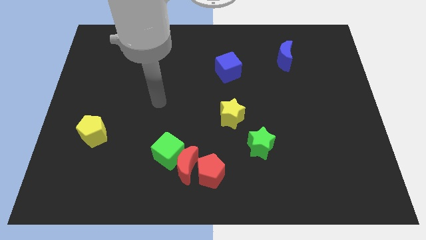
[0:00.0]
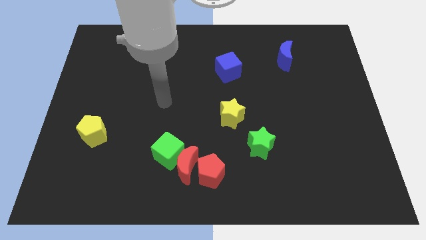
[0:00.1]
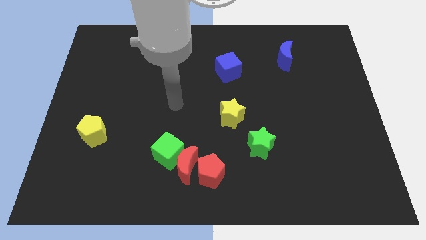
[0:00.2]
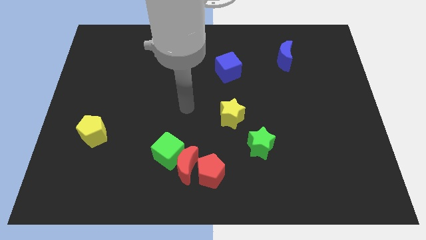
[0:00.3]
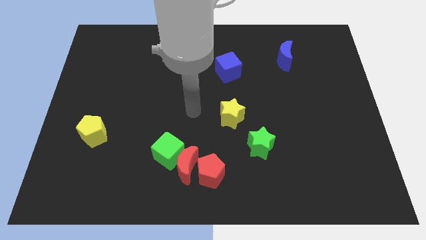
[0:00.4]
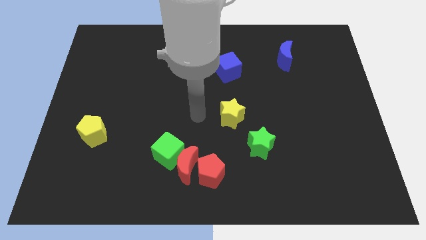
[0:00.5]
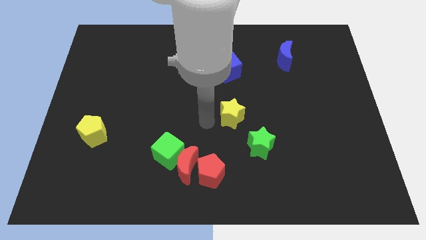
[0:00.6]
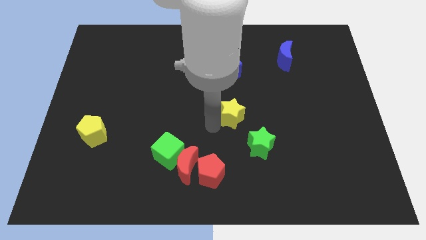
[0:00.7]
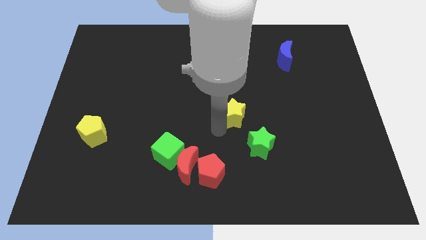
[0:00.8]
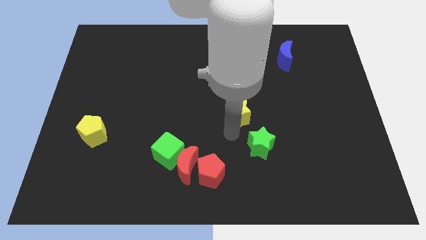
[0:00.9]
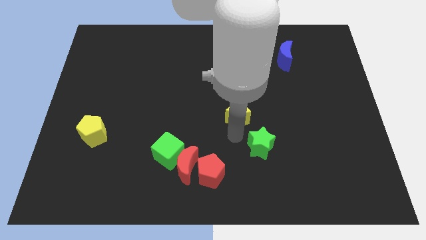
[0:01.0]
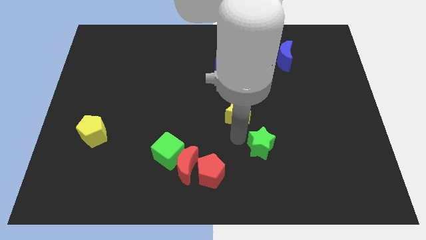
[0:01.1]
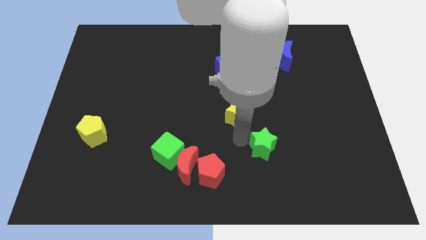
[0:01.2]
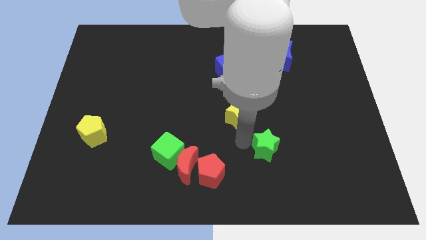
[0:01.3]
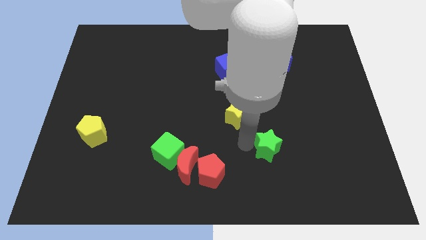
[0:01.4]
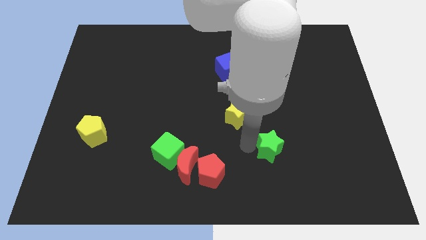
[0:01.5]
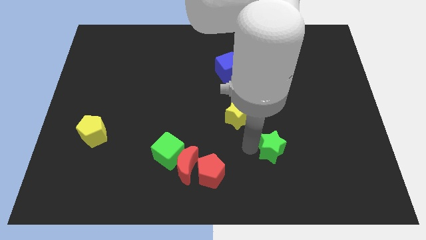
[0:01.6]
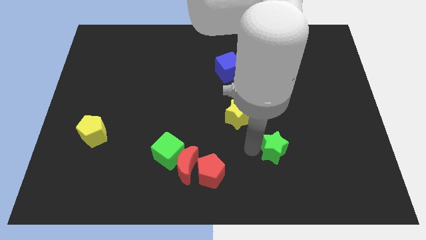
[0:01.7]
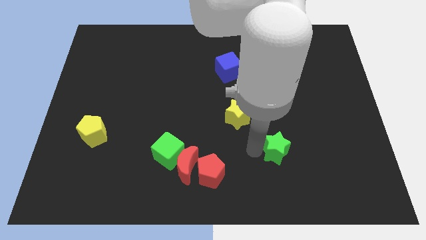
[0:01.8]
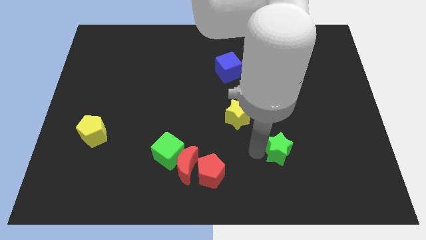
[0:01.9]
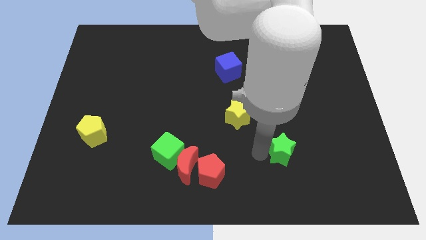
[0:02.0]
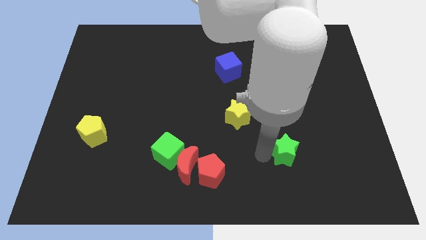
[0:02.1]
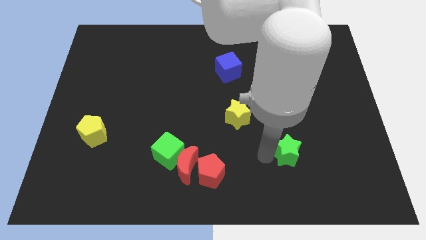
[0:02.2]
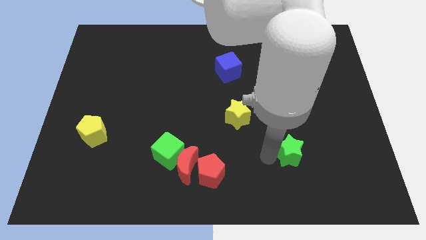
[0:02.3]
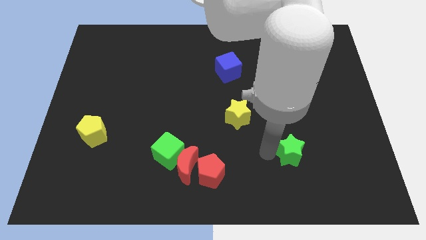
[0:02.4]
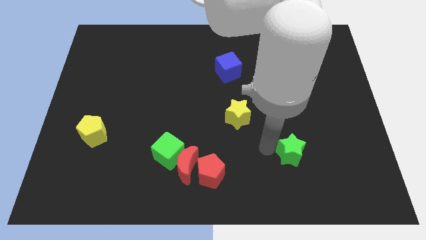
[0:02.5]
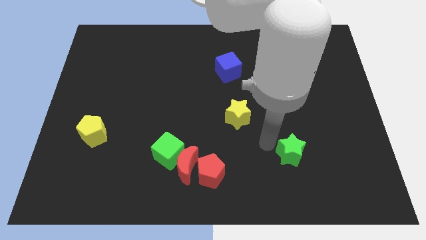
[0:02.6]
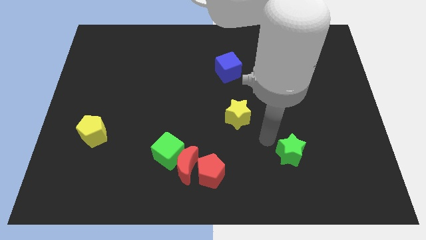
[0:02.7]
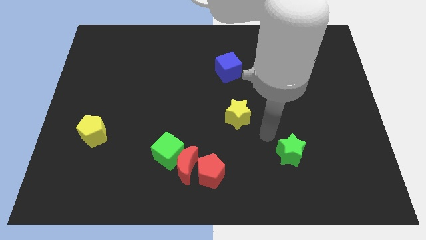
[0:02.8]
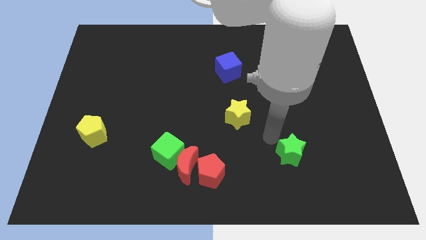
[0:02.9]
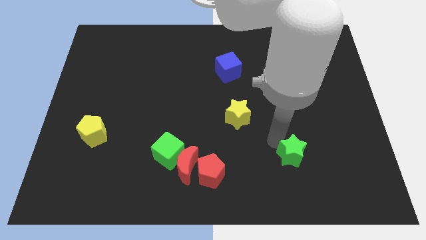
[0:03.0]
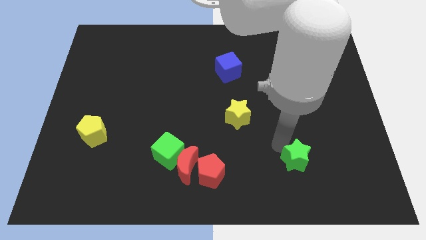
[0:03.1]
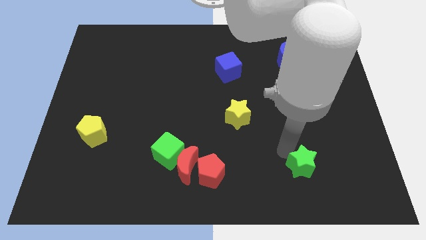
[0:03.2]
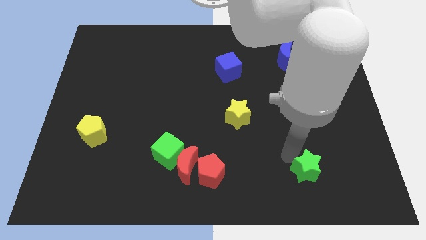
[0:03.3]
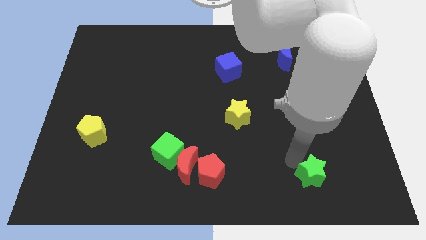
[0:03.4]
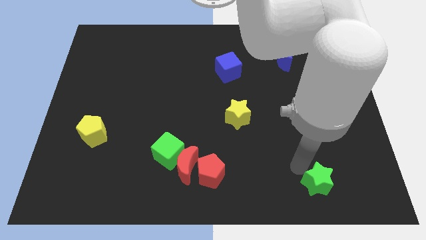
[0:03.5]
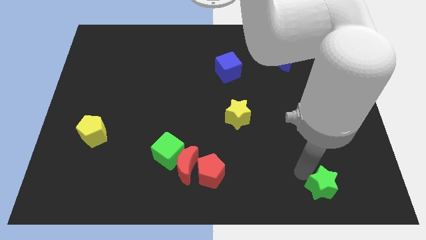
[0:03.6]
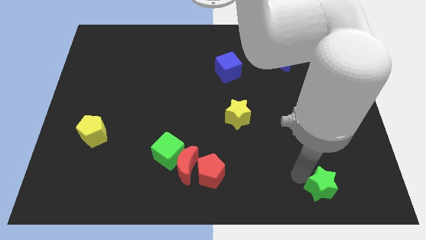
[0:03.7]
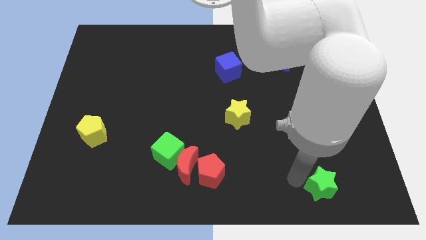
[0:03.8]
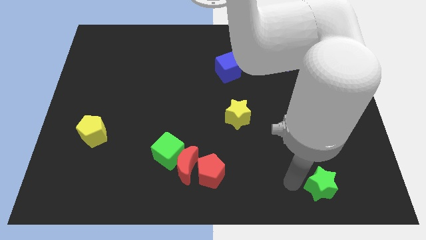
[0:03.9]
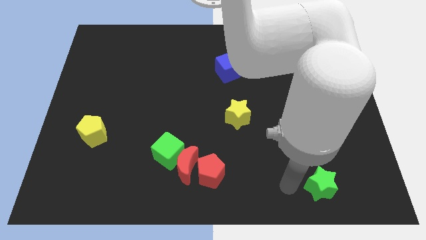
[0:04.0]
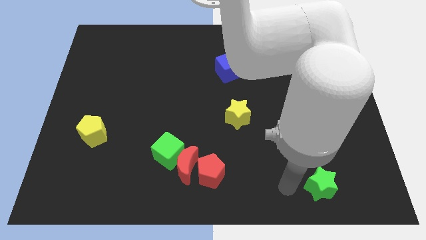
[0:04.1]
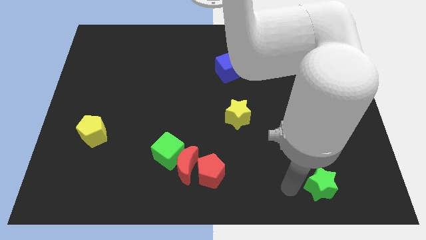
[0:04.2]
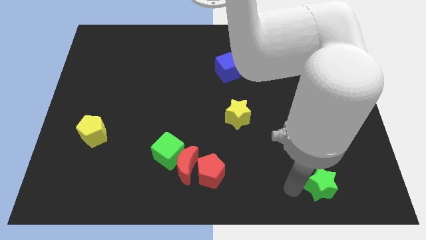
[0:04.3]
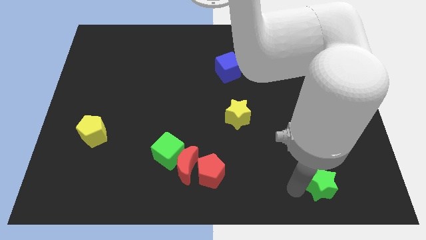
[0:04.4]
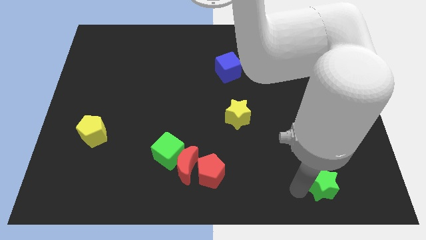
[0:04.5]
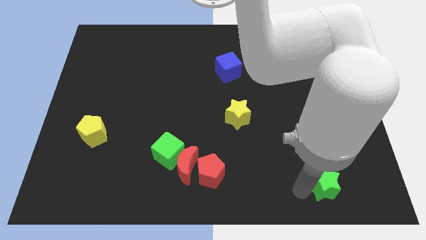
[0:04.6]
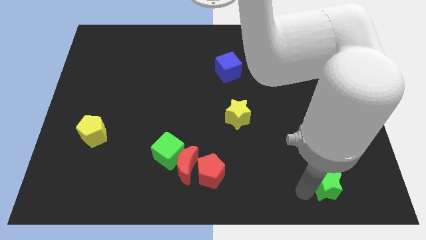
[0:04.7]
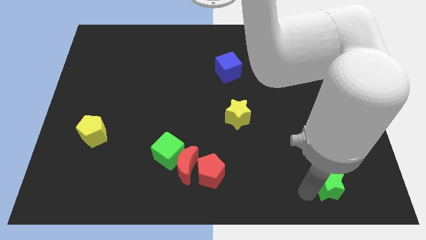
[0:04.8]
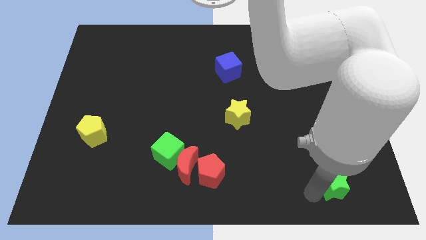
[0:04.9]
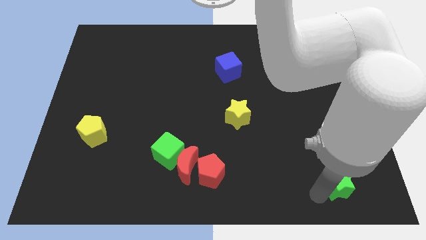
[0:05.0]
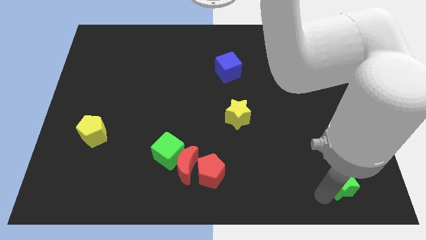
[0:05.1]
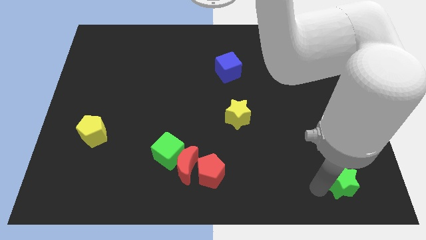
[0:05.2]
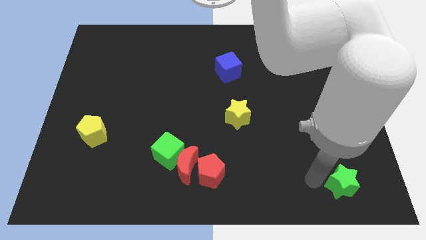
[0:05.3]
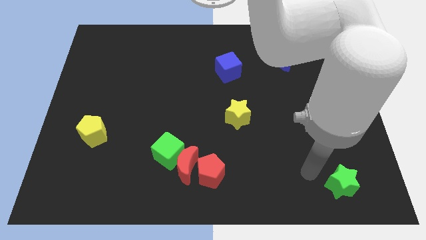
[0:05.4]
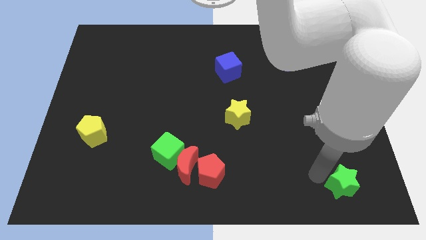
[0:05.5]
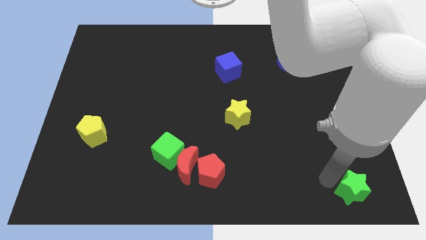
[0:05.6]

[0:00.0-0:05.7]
slide the green star to the bottom right

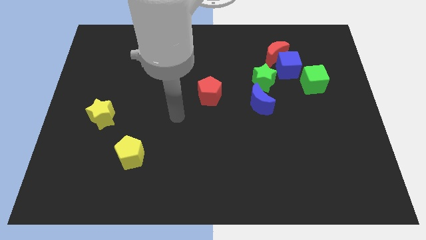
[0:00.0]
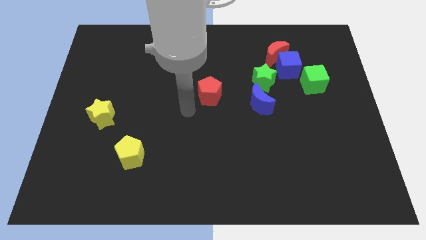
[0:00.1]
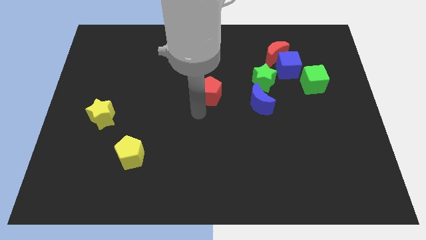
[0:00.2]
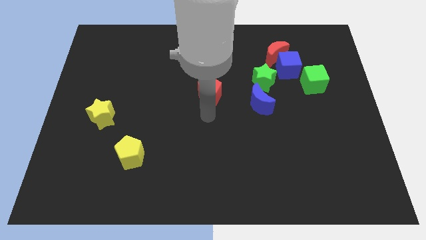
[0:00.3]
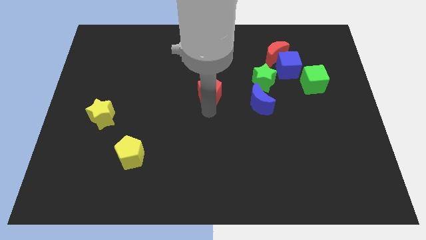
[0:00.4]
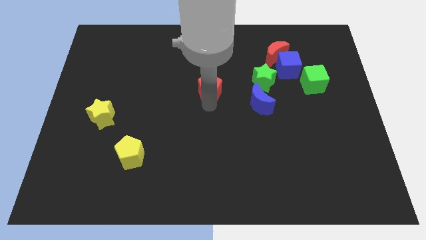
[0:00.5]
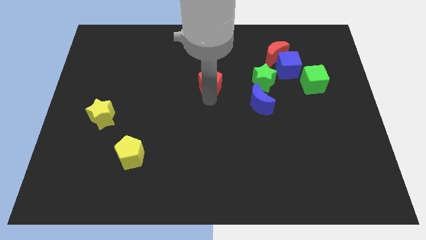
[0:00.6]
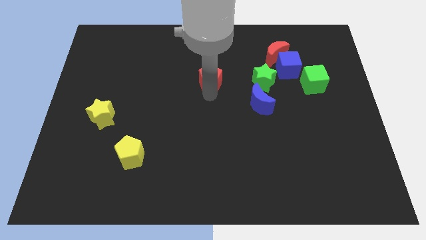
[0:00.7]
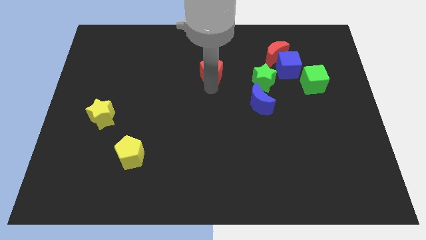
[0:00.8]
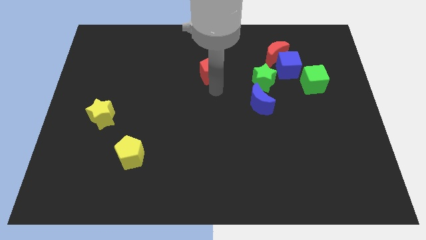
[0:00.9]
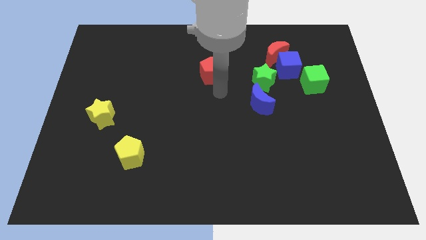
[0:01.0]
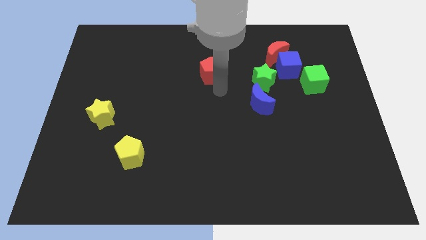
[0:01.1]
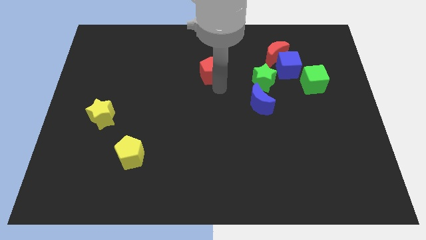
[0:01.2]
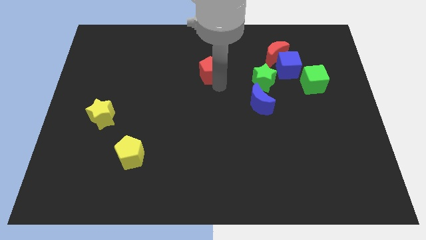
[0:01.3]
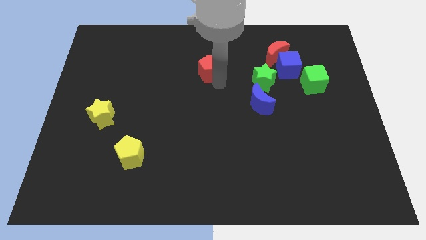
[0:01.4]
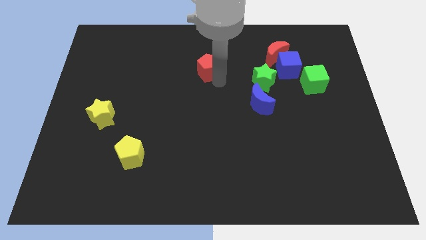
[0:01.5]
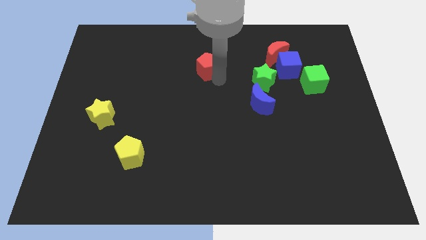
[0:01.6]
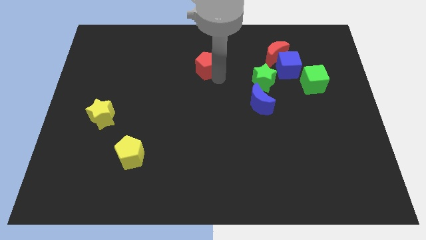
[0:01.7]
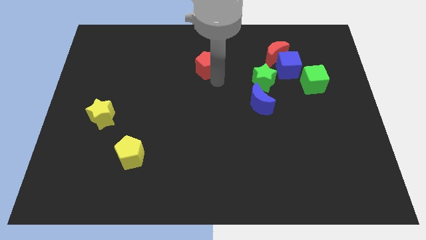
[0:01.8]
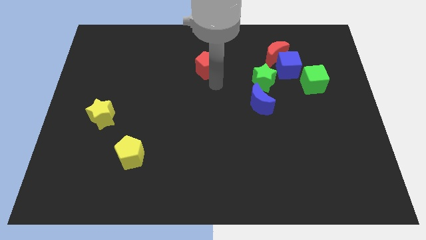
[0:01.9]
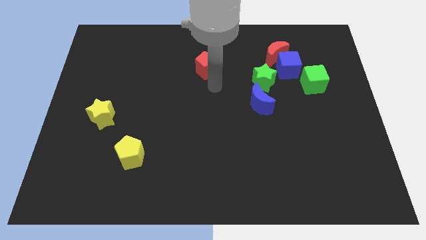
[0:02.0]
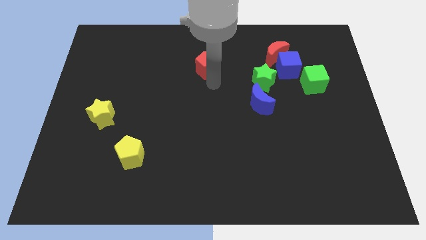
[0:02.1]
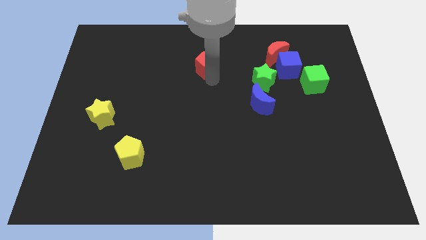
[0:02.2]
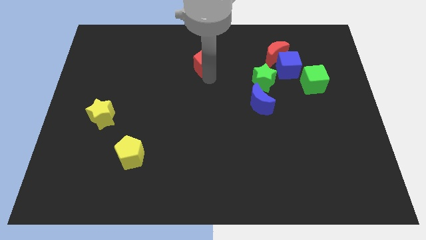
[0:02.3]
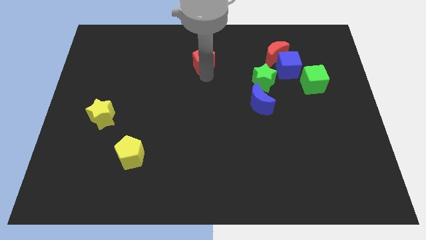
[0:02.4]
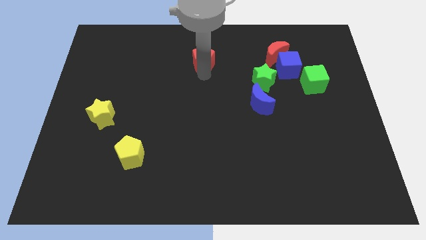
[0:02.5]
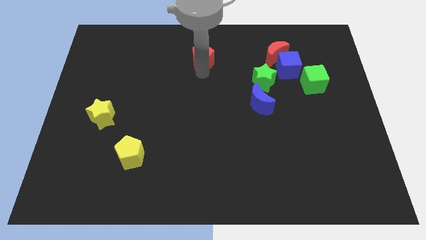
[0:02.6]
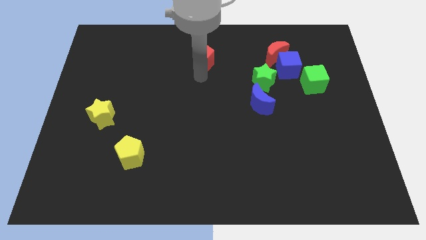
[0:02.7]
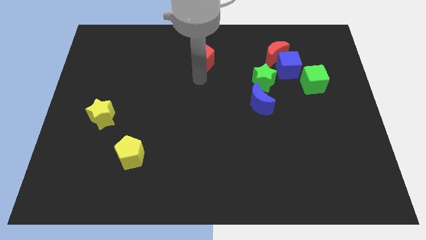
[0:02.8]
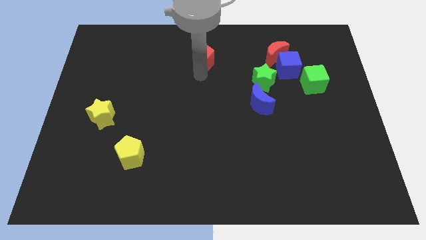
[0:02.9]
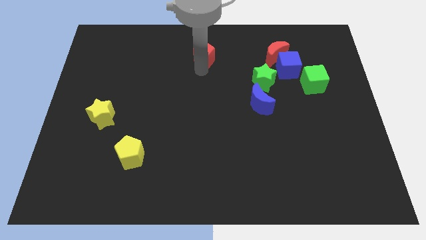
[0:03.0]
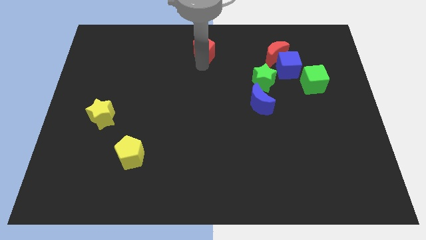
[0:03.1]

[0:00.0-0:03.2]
put the red pentagon to the top
